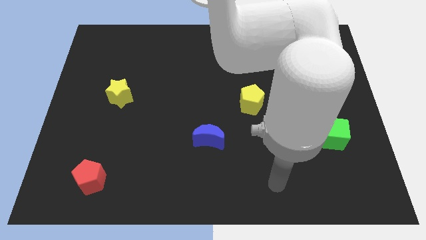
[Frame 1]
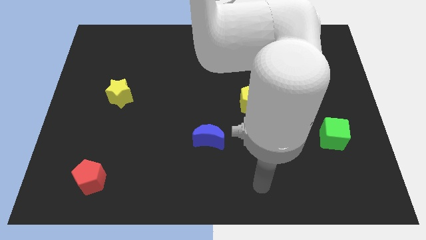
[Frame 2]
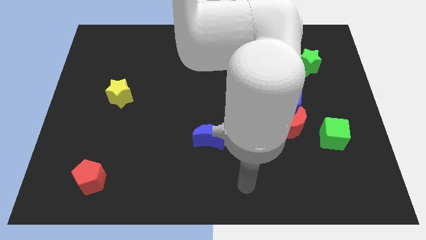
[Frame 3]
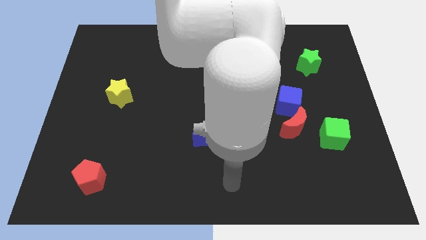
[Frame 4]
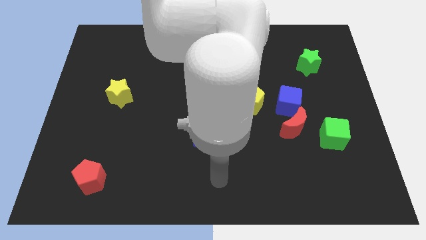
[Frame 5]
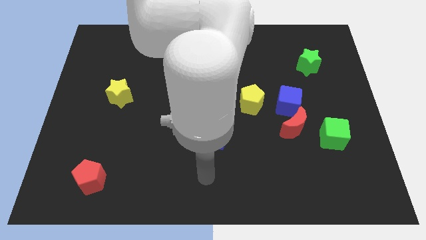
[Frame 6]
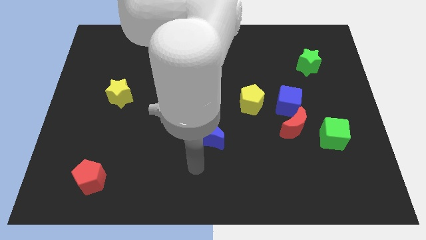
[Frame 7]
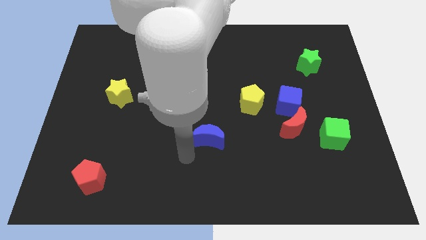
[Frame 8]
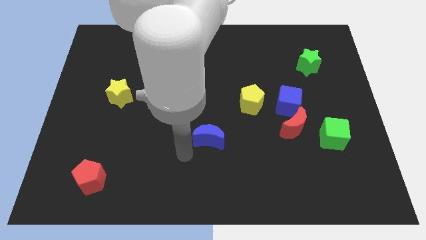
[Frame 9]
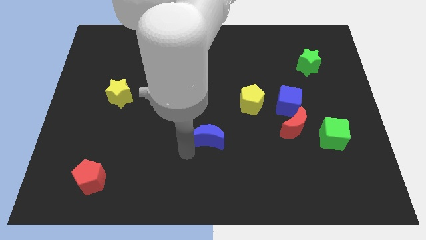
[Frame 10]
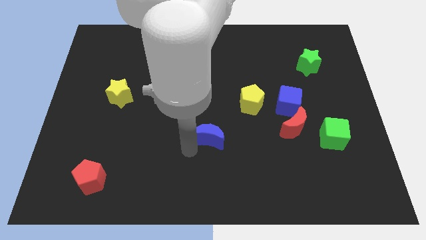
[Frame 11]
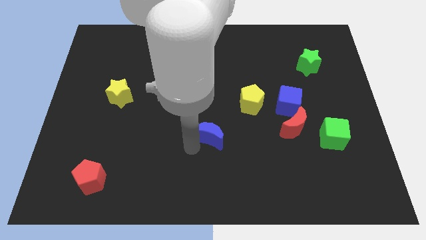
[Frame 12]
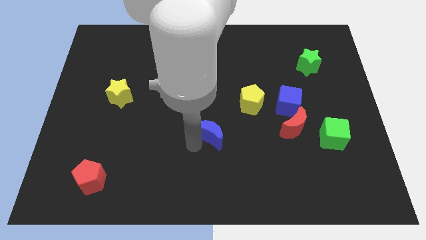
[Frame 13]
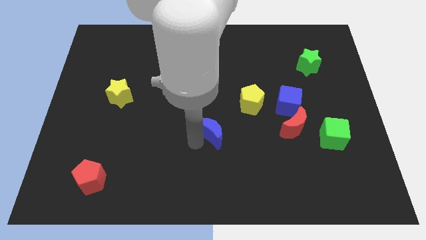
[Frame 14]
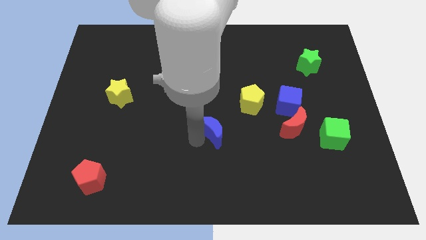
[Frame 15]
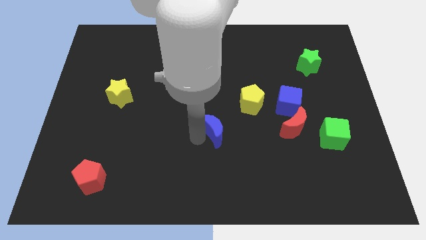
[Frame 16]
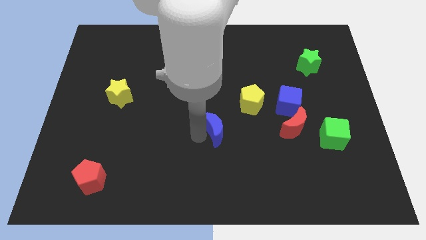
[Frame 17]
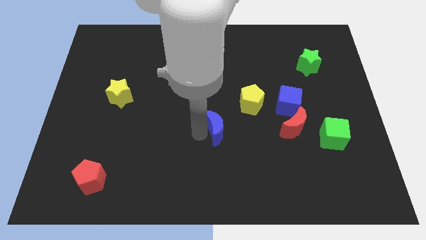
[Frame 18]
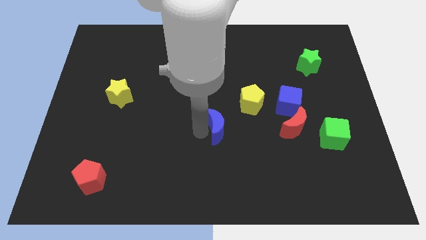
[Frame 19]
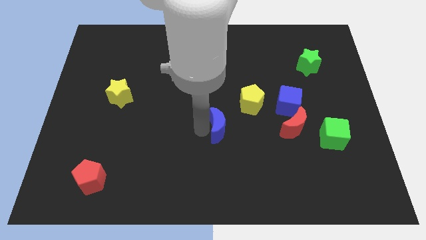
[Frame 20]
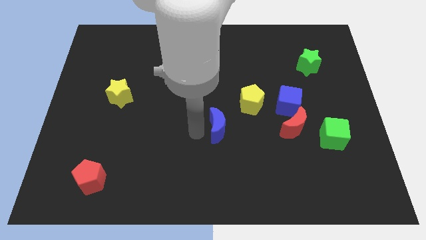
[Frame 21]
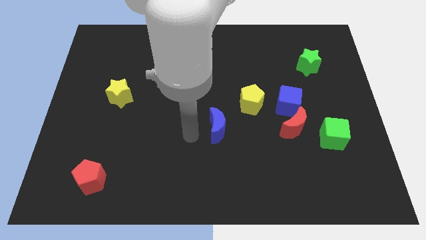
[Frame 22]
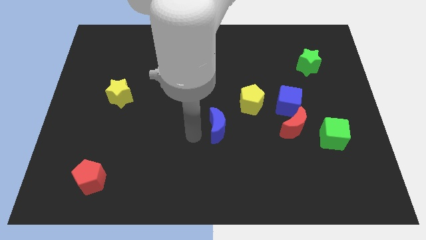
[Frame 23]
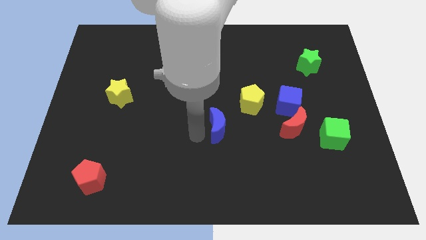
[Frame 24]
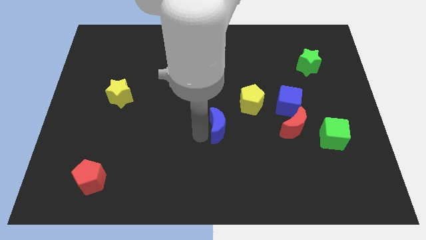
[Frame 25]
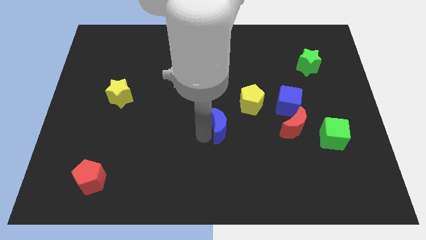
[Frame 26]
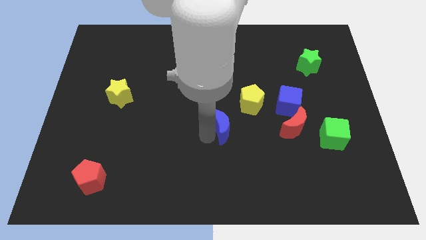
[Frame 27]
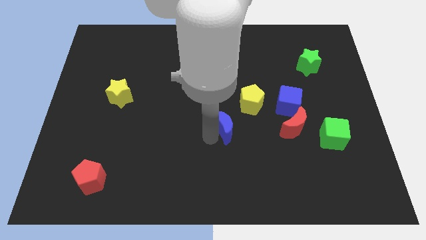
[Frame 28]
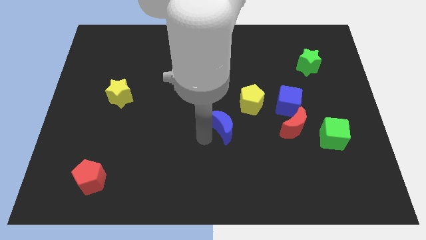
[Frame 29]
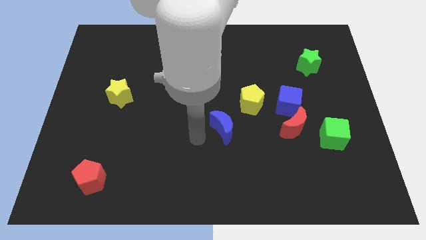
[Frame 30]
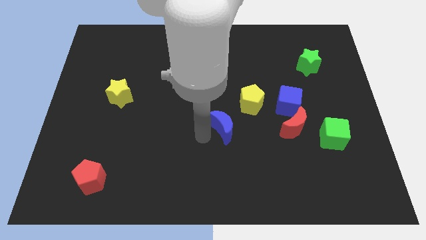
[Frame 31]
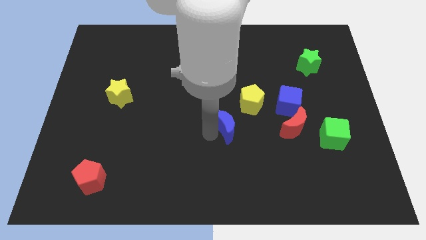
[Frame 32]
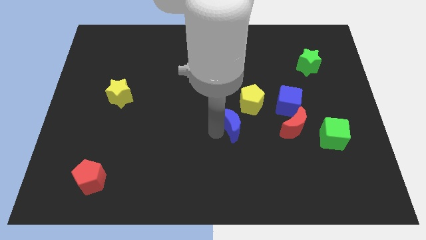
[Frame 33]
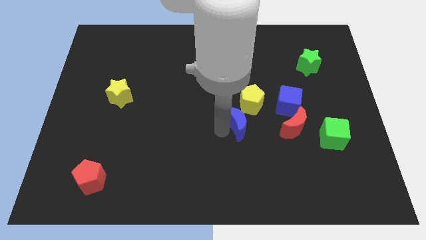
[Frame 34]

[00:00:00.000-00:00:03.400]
slightly slide the blue moon upwards and to the right diagonally

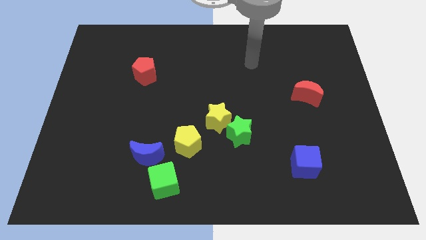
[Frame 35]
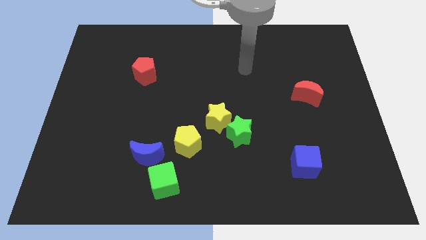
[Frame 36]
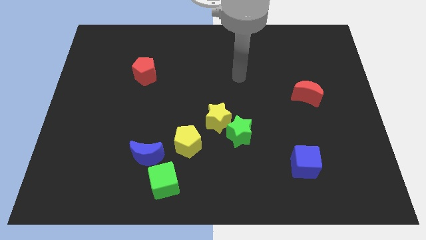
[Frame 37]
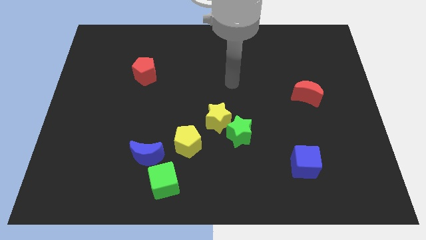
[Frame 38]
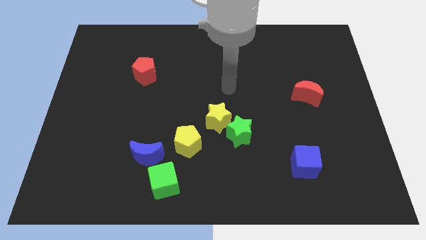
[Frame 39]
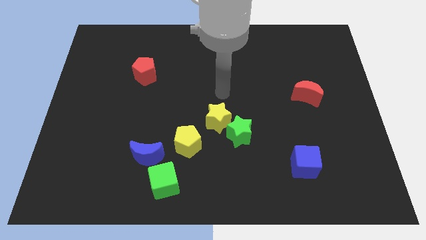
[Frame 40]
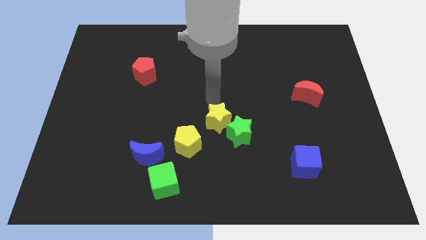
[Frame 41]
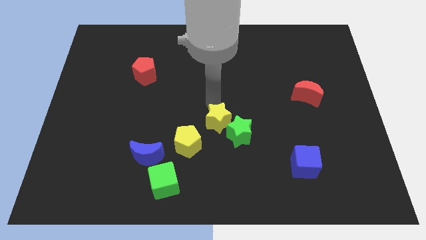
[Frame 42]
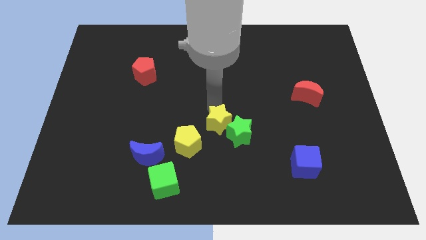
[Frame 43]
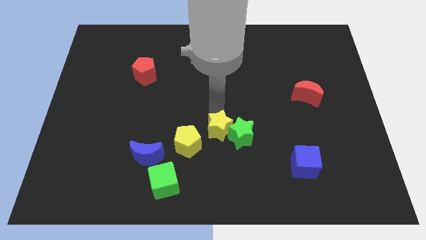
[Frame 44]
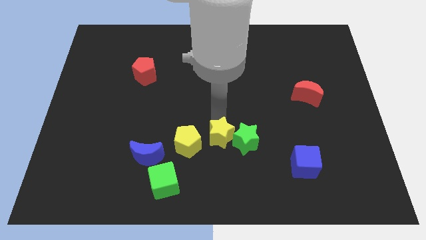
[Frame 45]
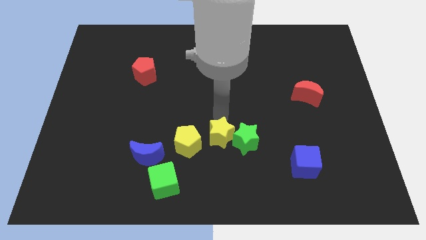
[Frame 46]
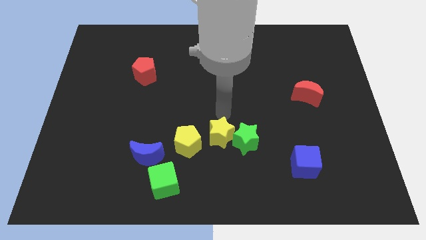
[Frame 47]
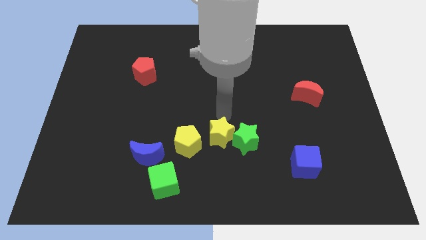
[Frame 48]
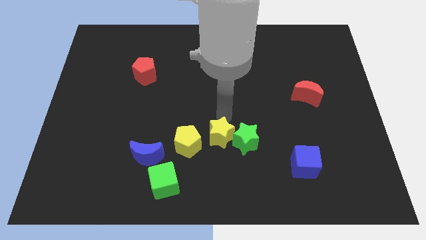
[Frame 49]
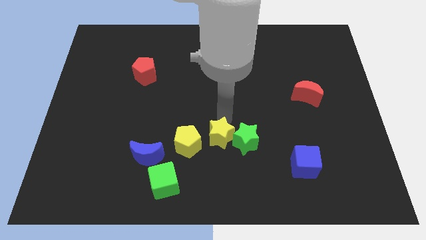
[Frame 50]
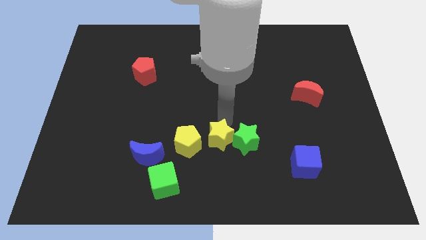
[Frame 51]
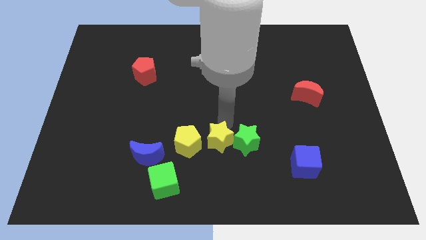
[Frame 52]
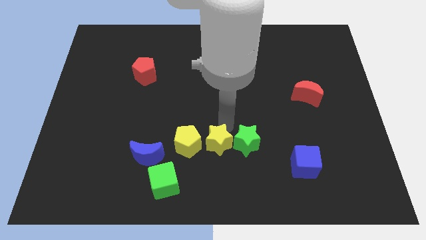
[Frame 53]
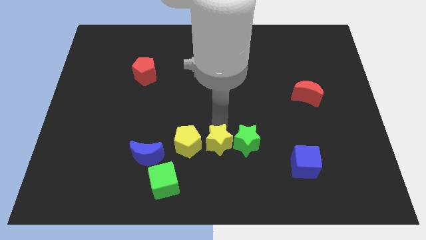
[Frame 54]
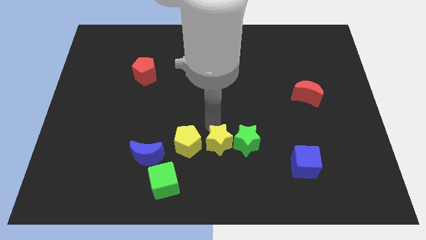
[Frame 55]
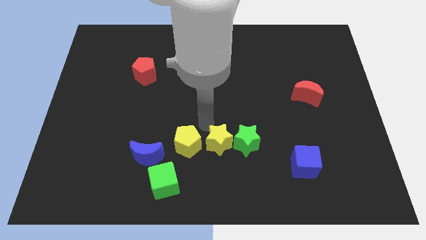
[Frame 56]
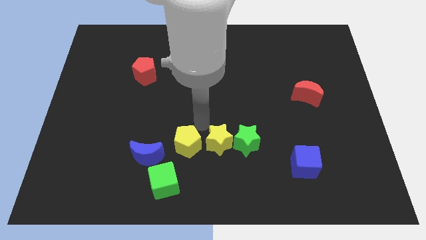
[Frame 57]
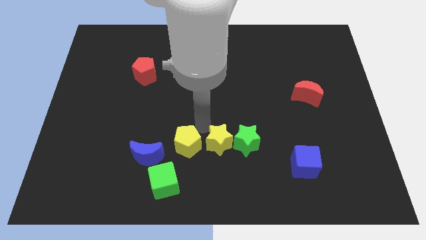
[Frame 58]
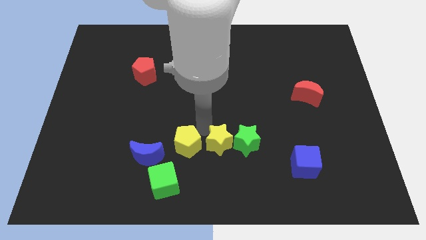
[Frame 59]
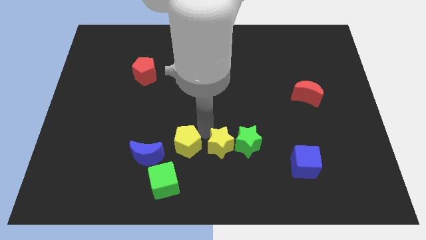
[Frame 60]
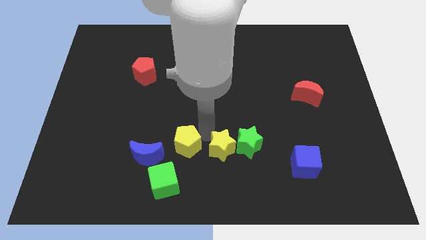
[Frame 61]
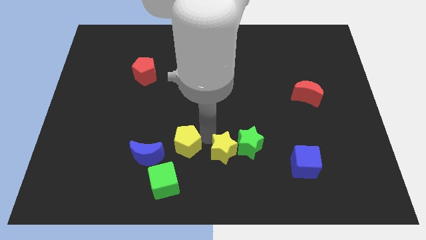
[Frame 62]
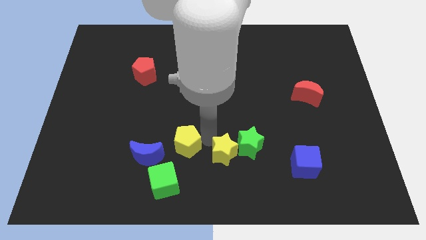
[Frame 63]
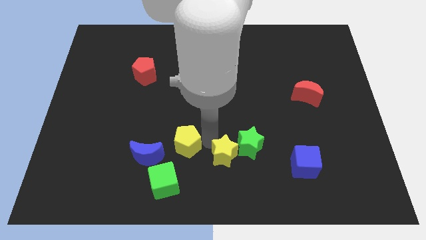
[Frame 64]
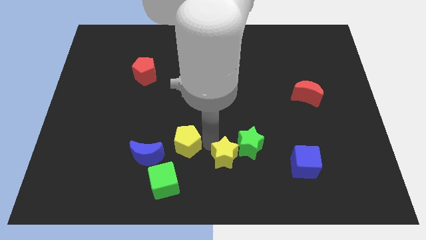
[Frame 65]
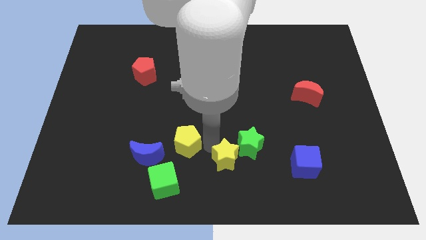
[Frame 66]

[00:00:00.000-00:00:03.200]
slightly slide the yellow star diagonally down and to the right

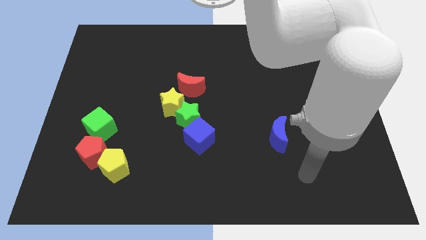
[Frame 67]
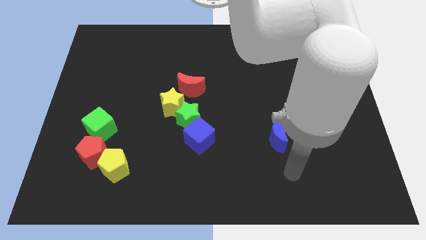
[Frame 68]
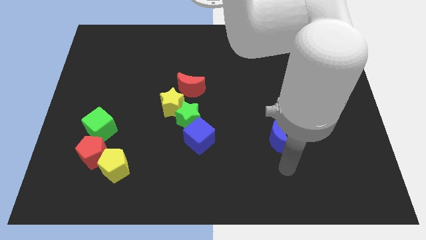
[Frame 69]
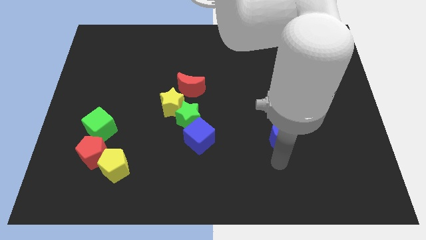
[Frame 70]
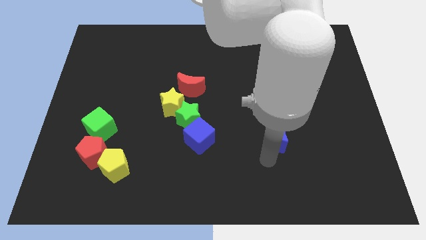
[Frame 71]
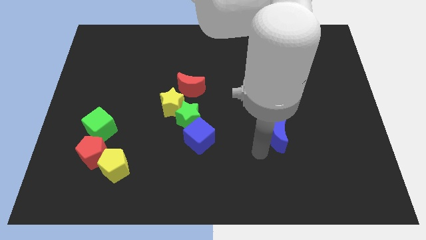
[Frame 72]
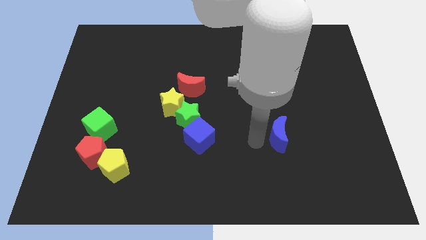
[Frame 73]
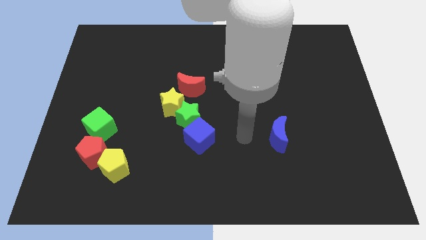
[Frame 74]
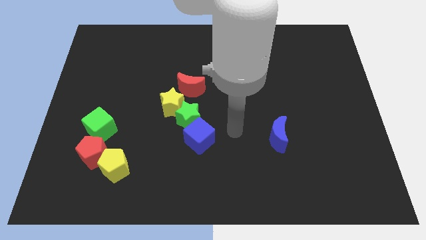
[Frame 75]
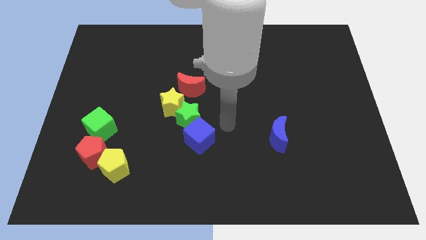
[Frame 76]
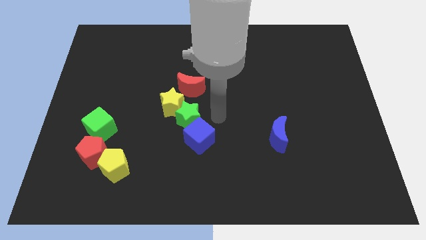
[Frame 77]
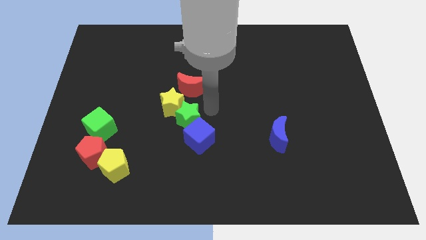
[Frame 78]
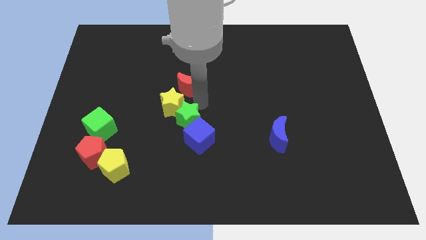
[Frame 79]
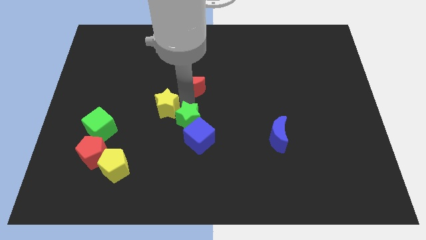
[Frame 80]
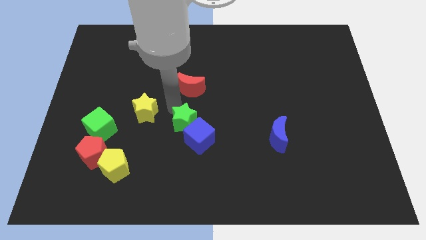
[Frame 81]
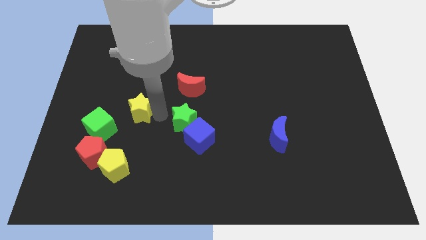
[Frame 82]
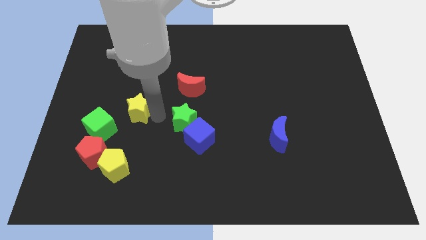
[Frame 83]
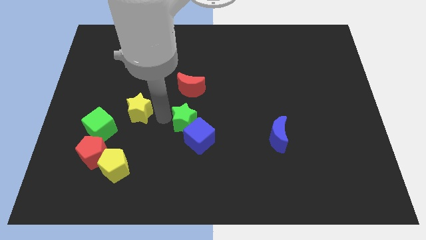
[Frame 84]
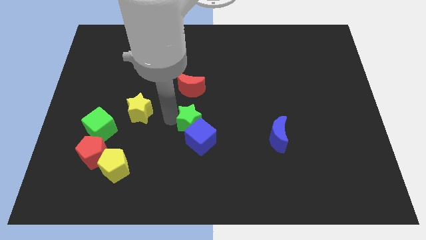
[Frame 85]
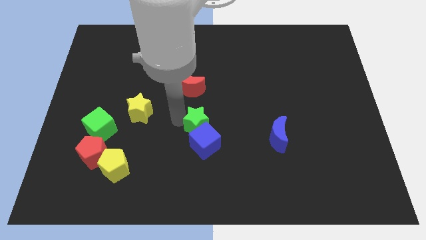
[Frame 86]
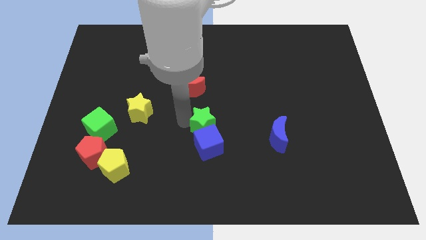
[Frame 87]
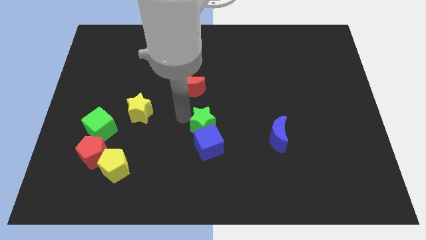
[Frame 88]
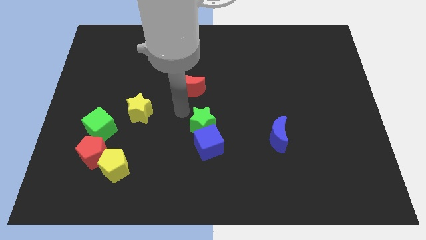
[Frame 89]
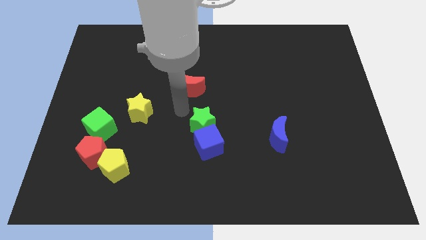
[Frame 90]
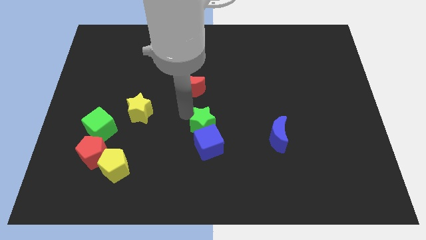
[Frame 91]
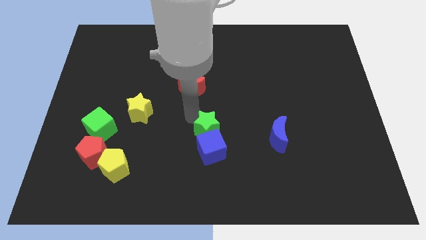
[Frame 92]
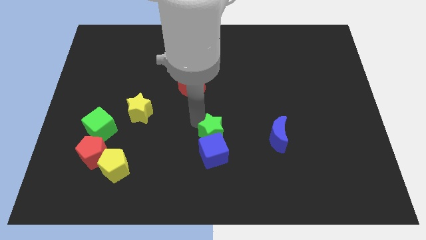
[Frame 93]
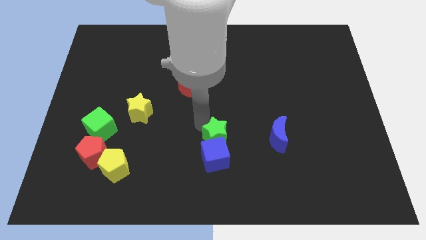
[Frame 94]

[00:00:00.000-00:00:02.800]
slightly move the green star downwards and to the right
